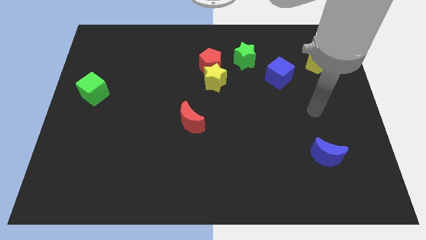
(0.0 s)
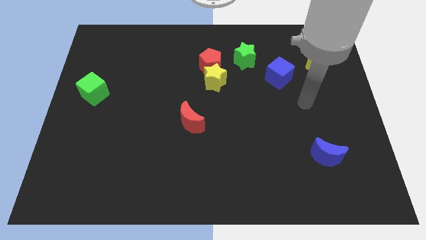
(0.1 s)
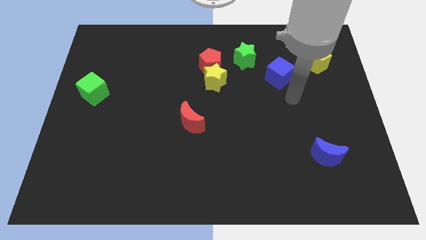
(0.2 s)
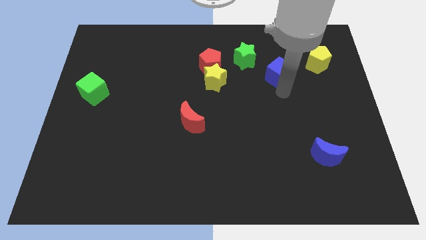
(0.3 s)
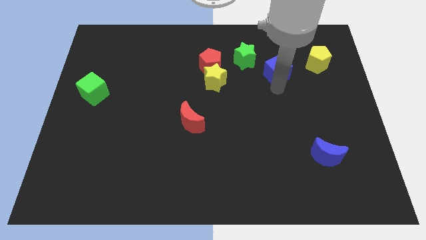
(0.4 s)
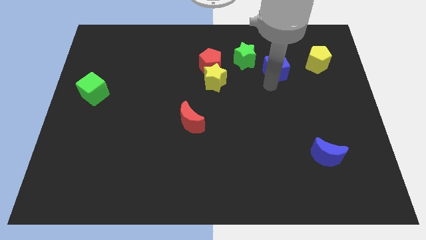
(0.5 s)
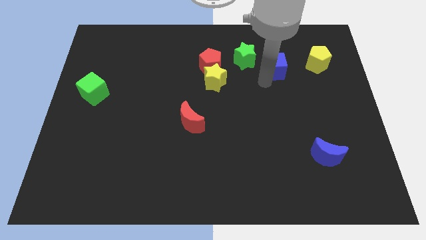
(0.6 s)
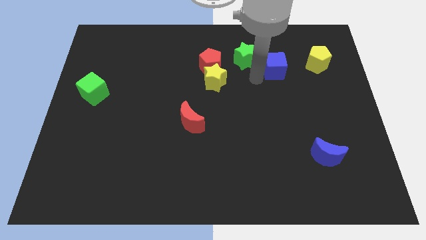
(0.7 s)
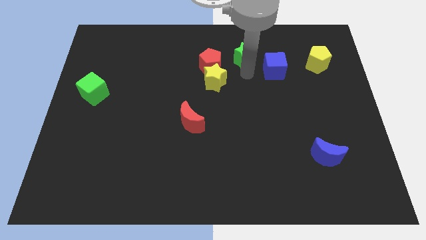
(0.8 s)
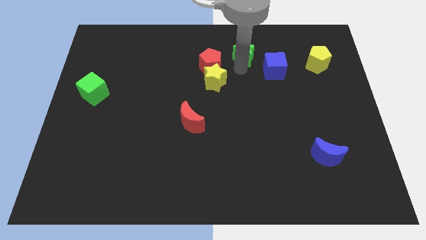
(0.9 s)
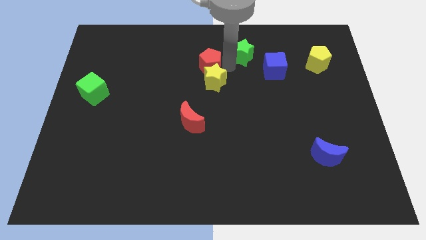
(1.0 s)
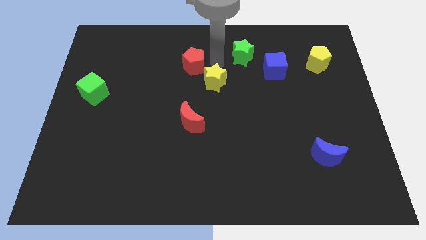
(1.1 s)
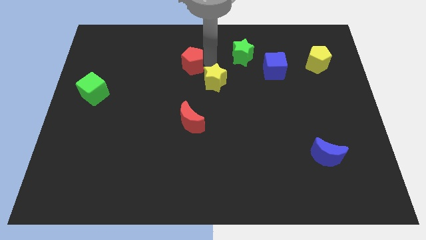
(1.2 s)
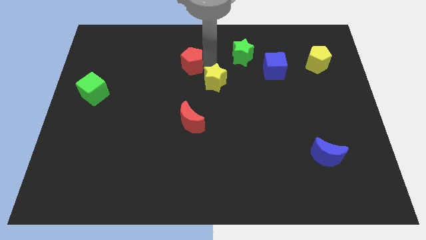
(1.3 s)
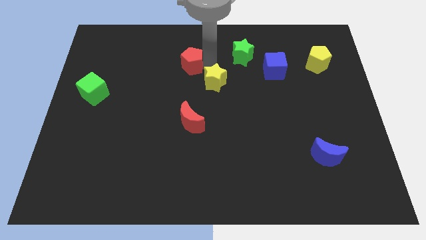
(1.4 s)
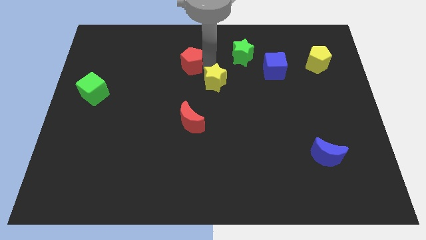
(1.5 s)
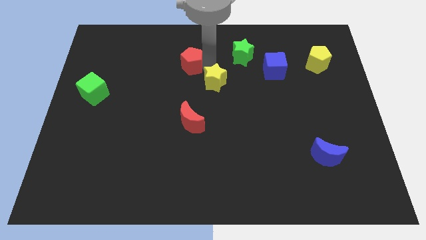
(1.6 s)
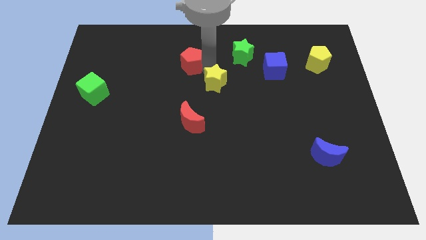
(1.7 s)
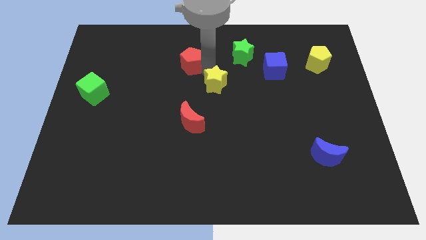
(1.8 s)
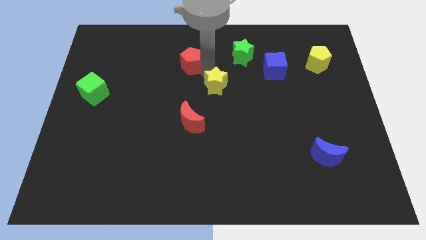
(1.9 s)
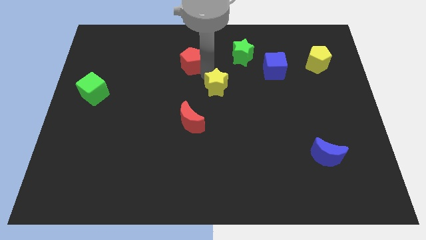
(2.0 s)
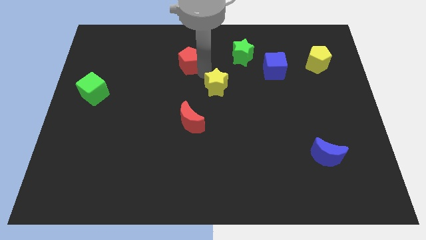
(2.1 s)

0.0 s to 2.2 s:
separate the yellow star from the red pentagon

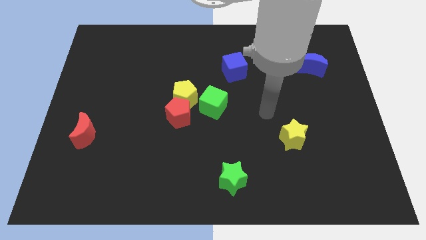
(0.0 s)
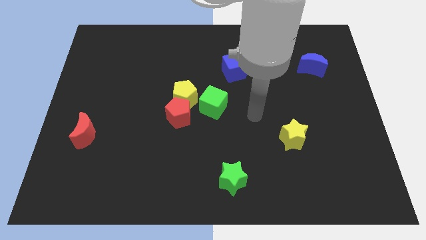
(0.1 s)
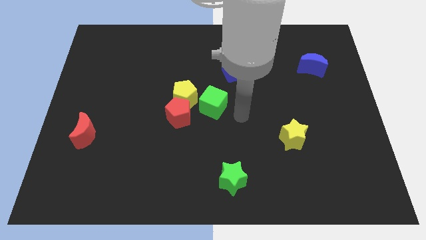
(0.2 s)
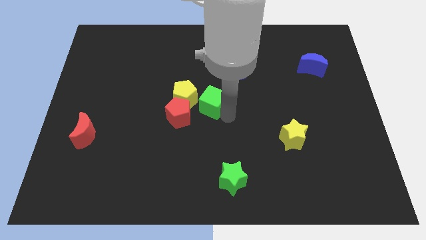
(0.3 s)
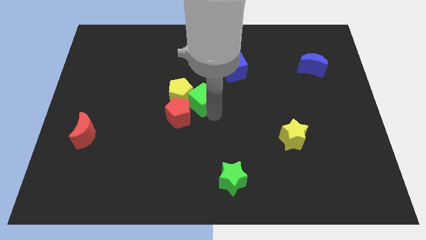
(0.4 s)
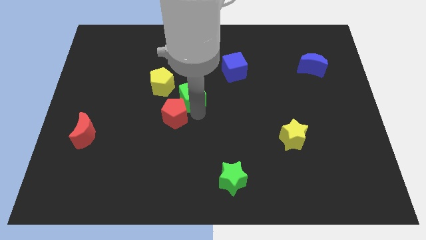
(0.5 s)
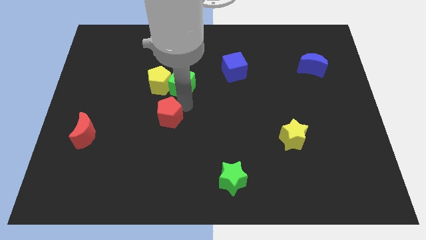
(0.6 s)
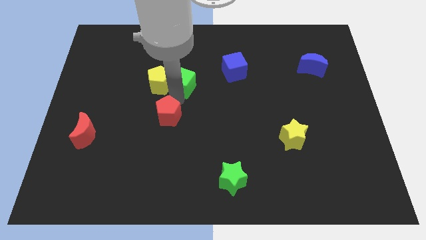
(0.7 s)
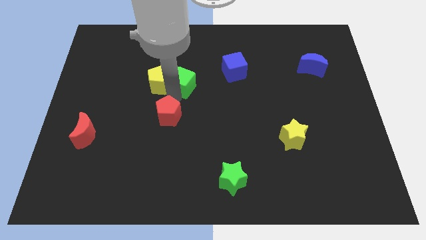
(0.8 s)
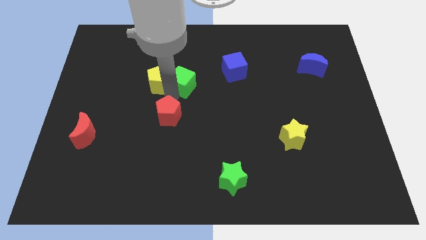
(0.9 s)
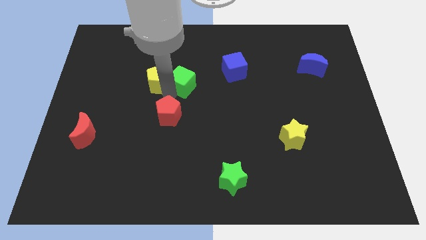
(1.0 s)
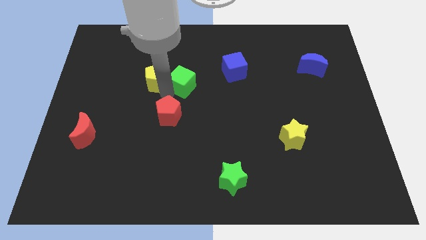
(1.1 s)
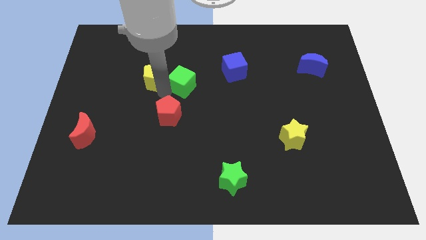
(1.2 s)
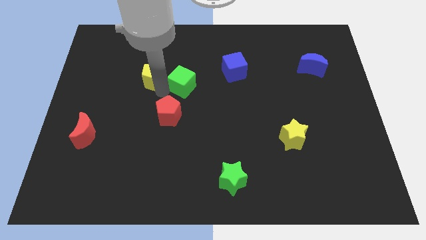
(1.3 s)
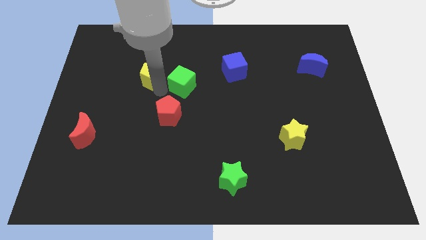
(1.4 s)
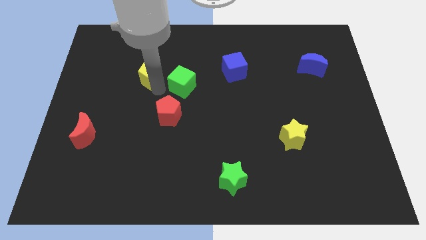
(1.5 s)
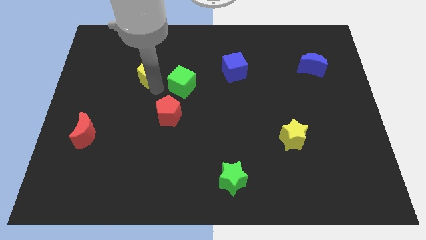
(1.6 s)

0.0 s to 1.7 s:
move the yellow pentagon away from the red pentagon and green cube

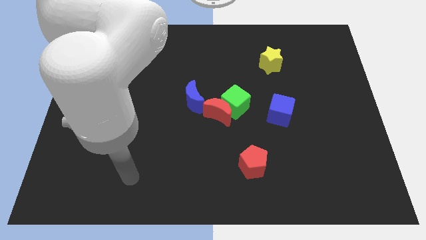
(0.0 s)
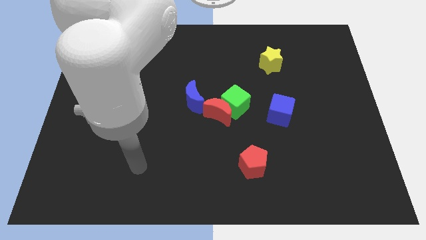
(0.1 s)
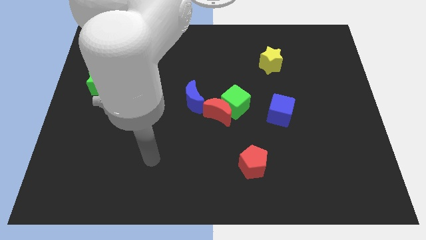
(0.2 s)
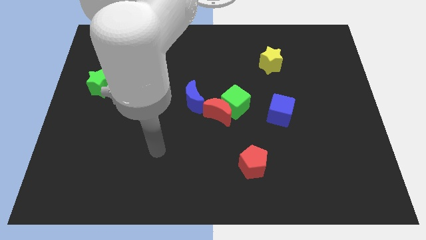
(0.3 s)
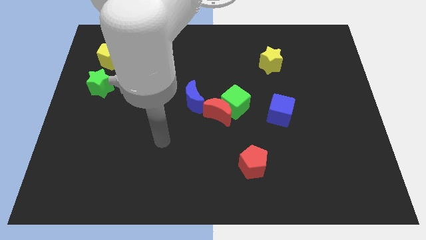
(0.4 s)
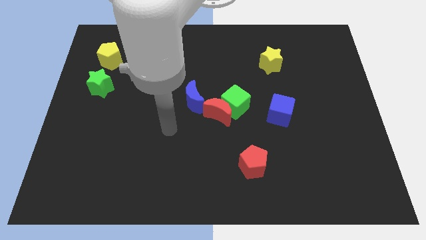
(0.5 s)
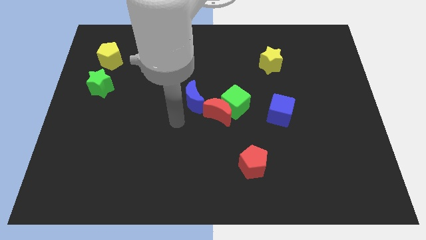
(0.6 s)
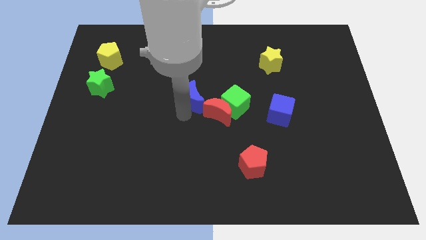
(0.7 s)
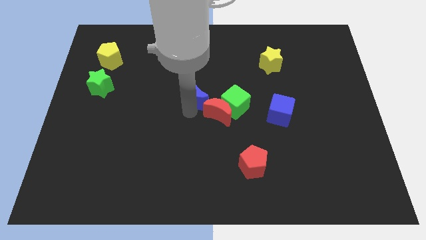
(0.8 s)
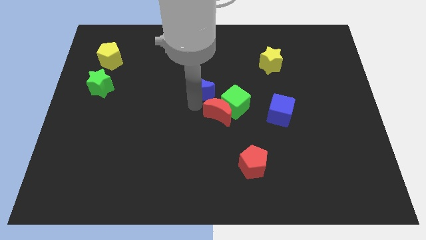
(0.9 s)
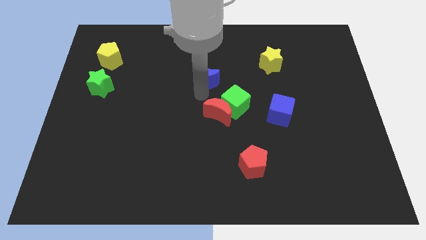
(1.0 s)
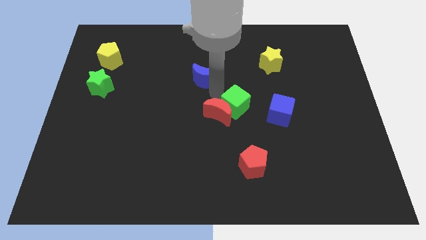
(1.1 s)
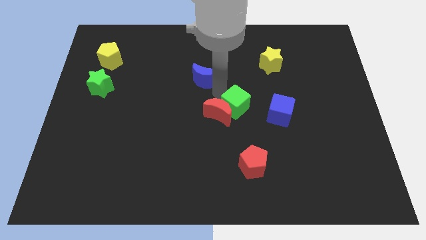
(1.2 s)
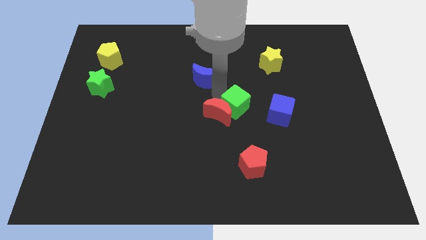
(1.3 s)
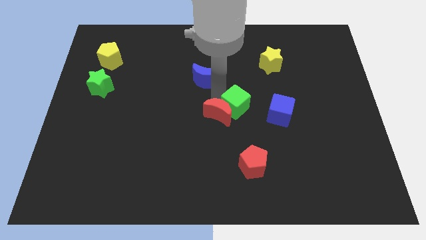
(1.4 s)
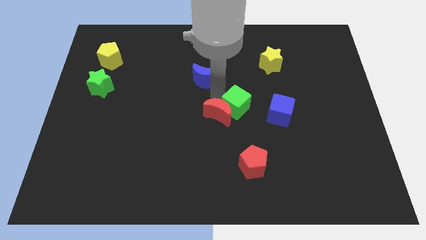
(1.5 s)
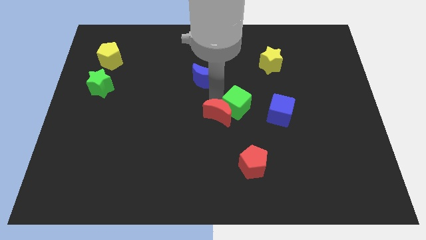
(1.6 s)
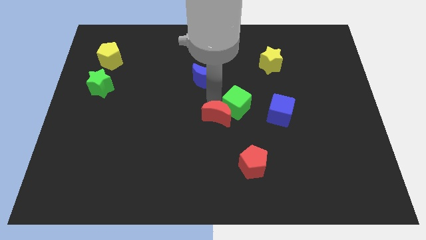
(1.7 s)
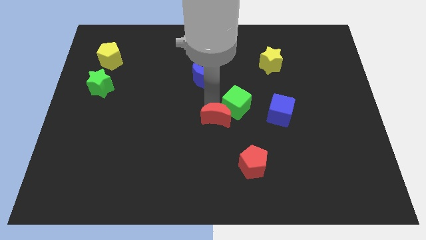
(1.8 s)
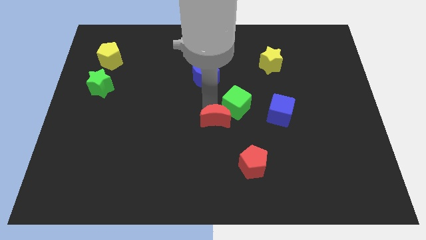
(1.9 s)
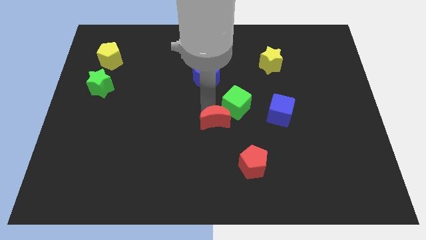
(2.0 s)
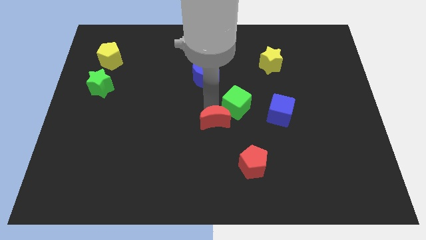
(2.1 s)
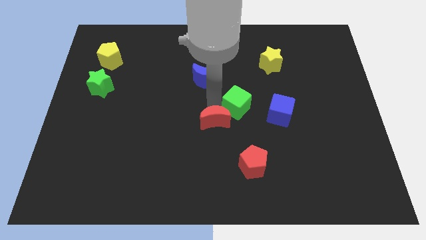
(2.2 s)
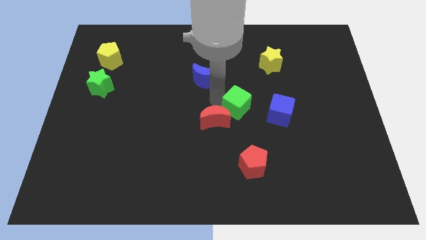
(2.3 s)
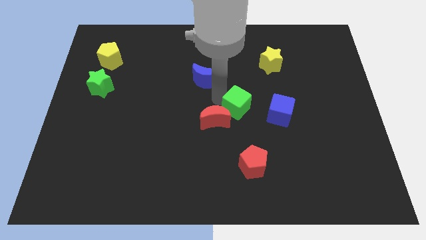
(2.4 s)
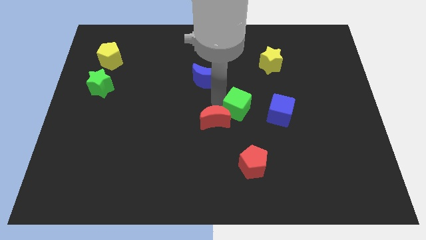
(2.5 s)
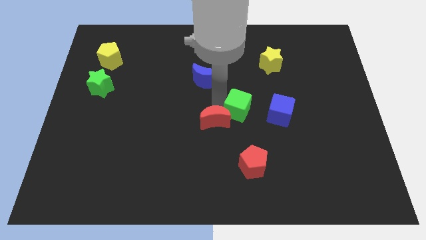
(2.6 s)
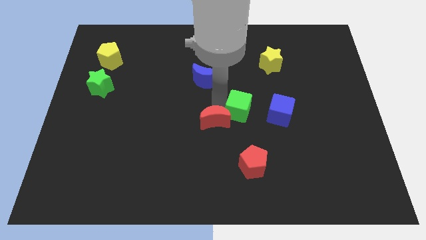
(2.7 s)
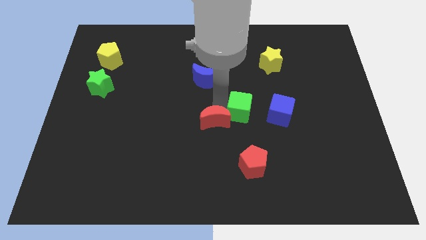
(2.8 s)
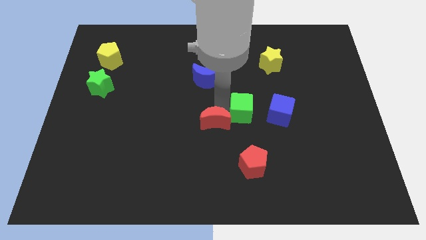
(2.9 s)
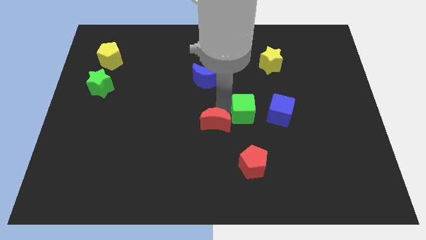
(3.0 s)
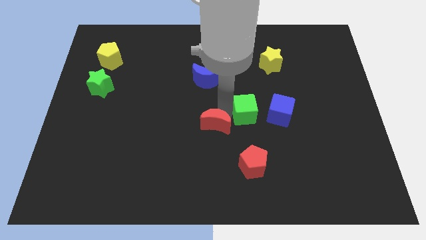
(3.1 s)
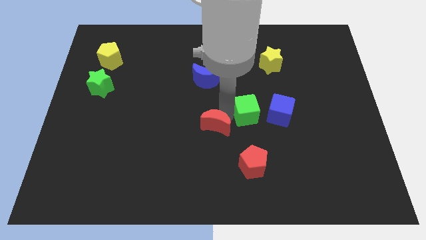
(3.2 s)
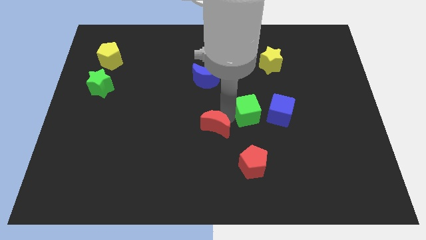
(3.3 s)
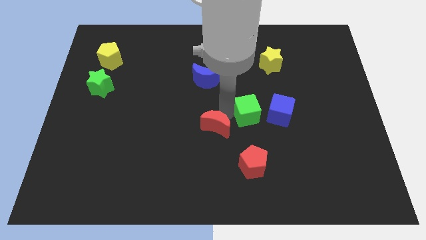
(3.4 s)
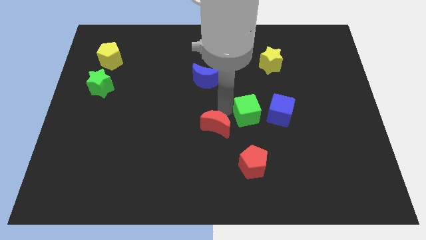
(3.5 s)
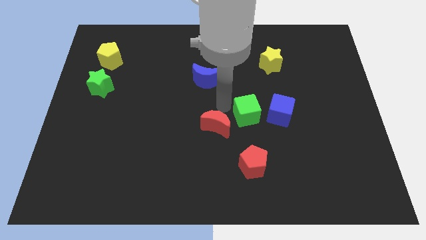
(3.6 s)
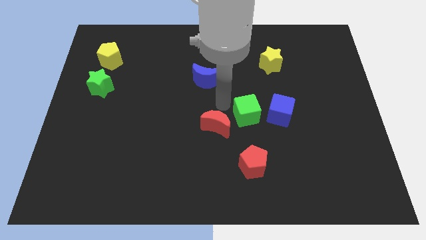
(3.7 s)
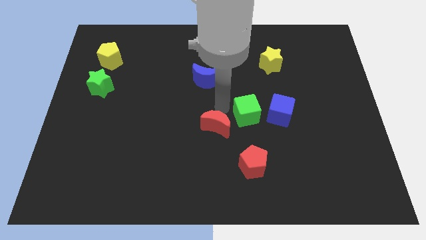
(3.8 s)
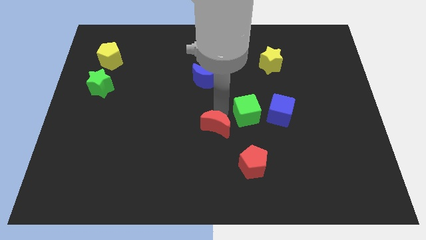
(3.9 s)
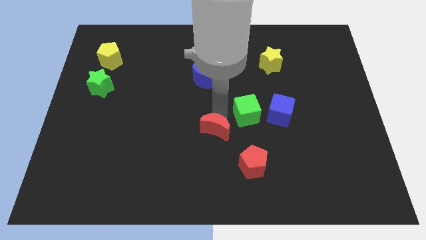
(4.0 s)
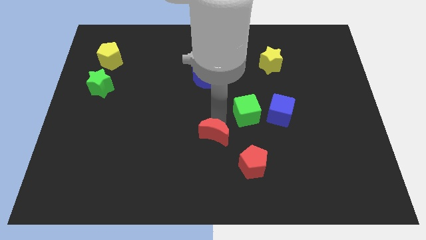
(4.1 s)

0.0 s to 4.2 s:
move the red moon away from the green cube and blue moon

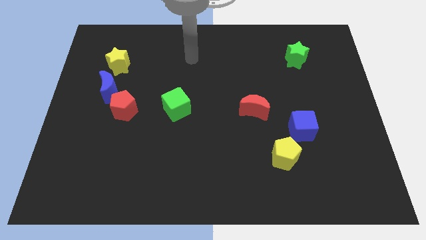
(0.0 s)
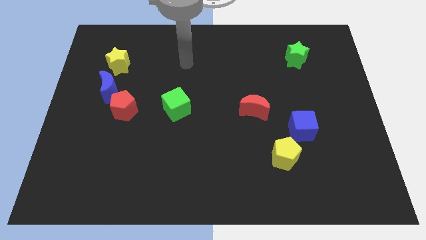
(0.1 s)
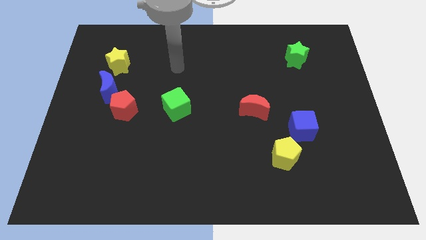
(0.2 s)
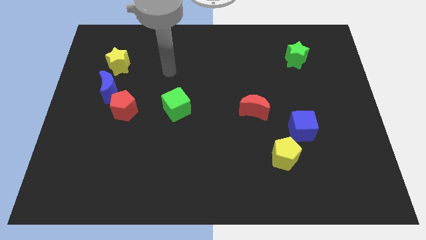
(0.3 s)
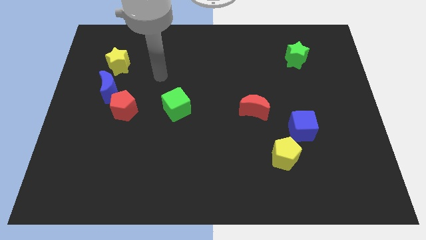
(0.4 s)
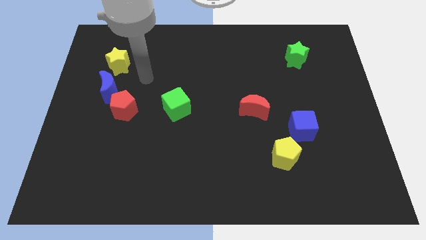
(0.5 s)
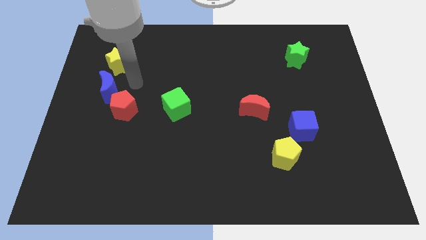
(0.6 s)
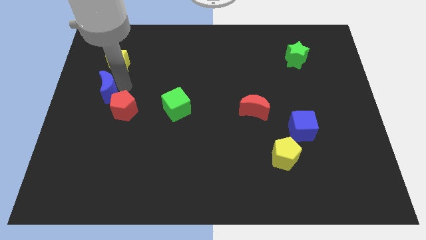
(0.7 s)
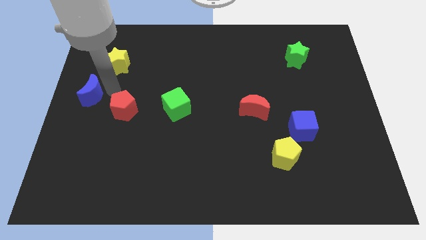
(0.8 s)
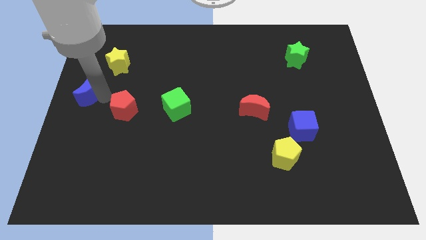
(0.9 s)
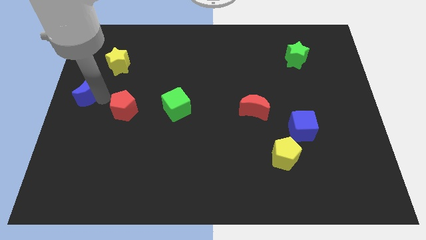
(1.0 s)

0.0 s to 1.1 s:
move the red pentagon away from the blue moon

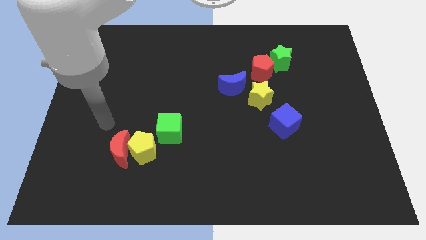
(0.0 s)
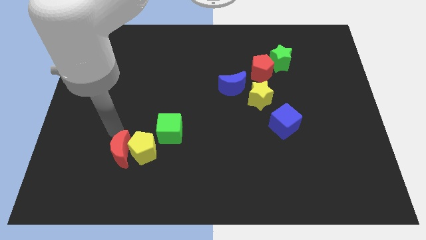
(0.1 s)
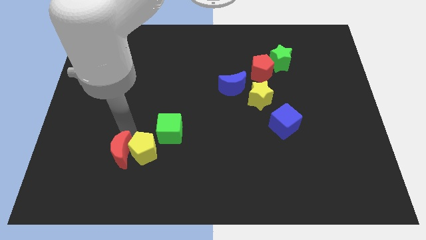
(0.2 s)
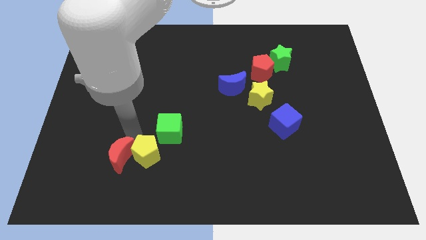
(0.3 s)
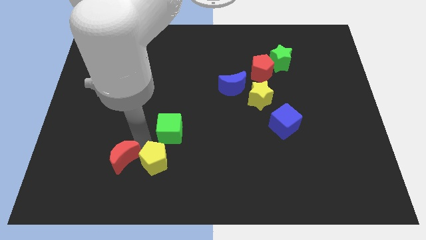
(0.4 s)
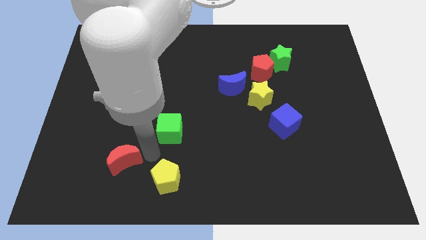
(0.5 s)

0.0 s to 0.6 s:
separate the red moon from the yellow pentagon
